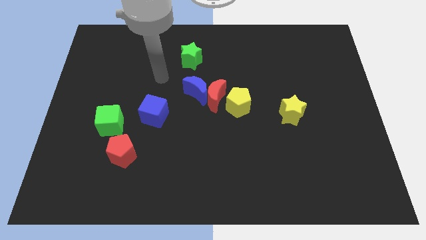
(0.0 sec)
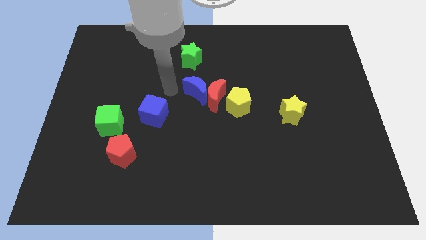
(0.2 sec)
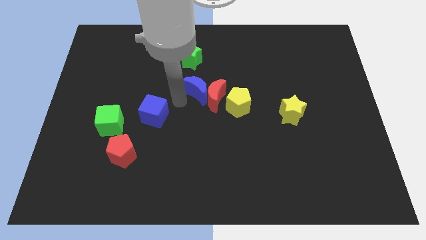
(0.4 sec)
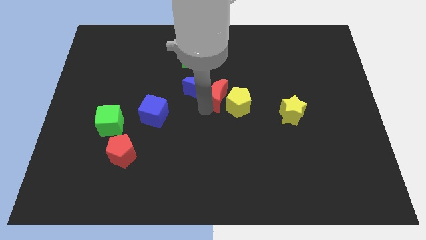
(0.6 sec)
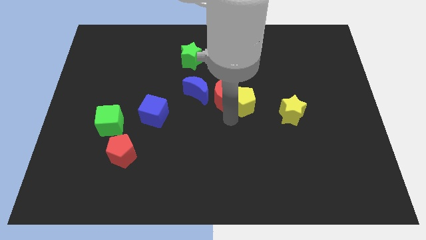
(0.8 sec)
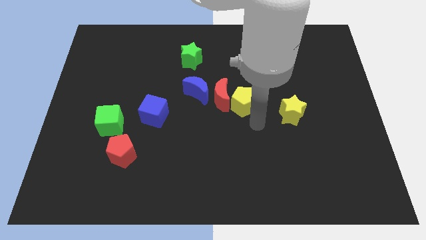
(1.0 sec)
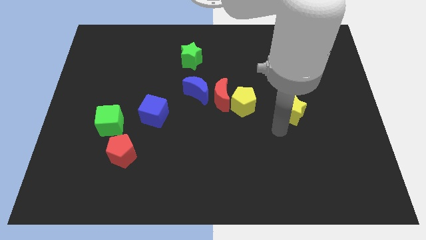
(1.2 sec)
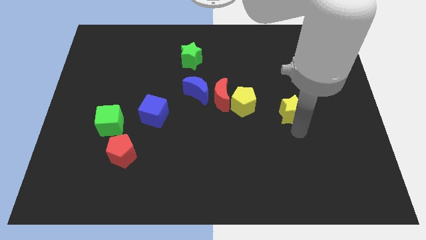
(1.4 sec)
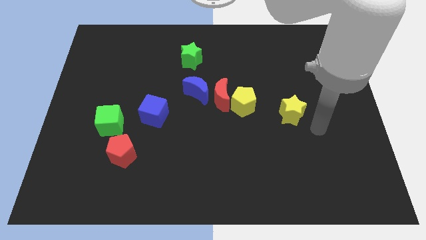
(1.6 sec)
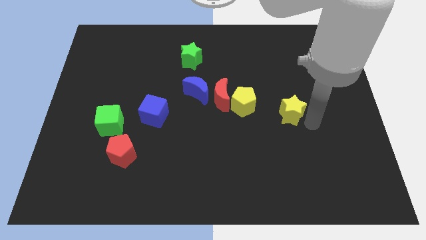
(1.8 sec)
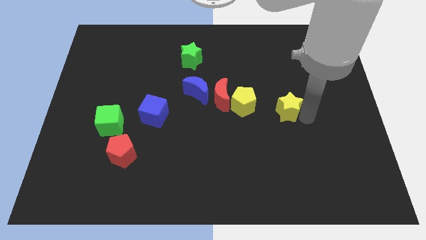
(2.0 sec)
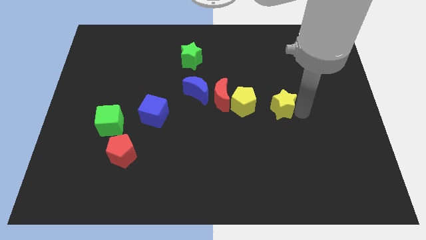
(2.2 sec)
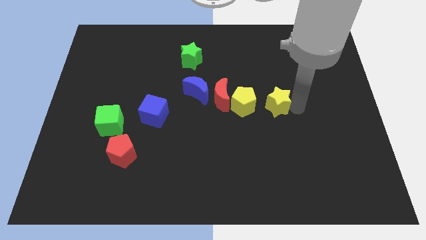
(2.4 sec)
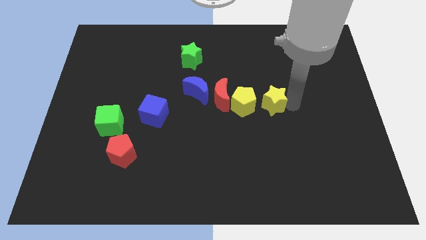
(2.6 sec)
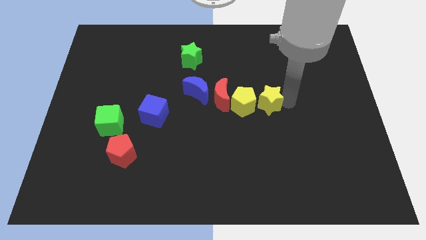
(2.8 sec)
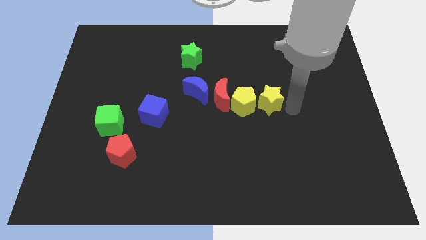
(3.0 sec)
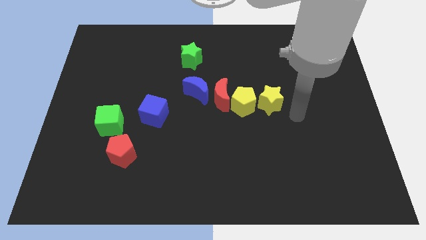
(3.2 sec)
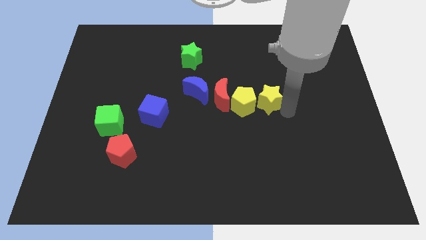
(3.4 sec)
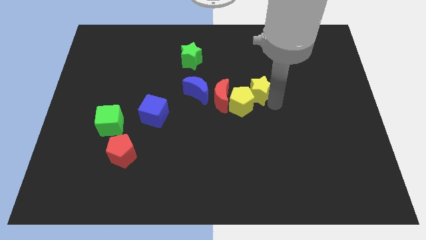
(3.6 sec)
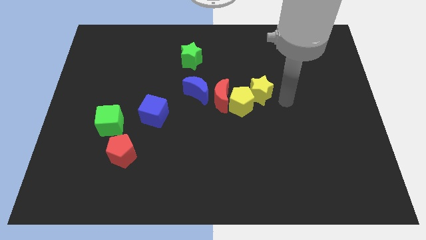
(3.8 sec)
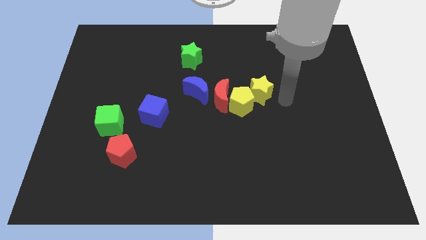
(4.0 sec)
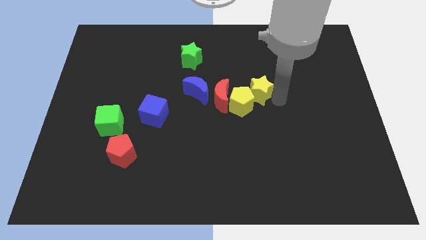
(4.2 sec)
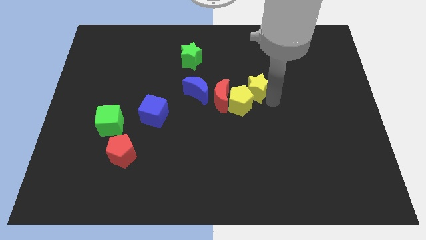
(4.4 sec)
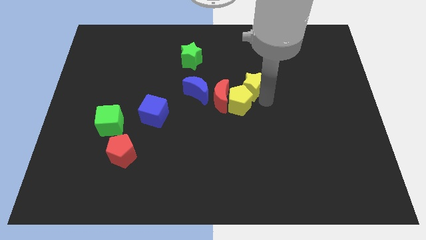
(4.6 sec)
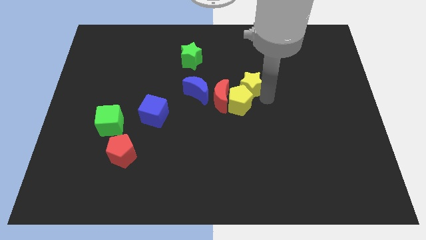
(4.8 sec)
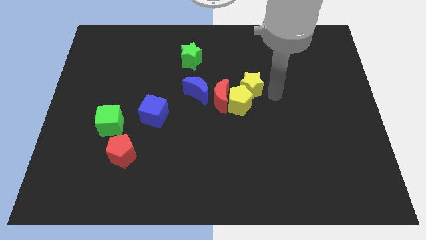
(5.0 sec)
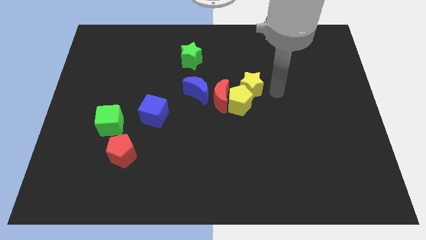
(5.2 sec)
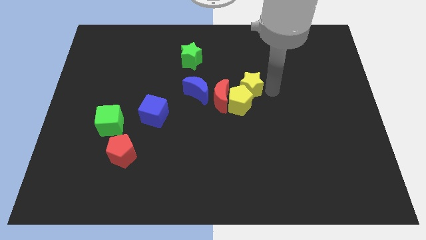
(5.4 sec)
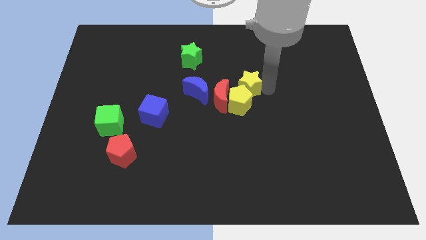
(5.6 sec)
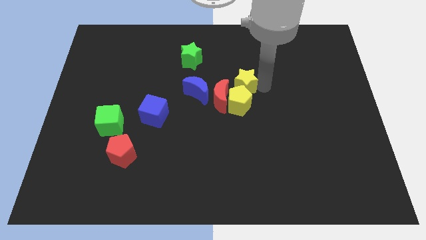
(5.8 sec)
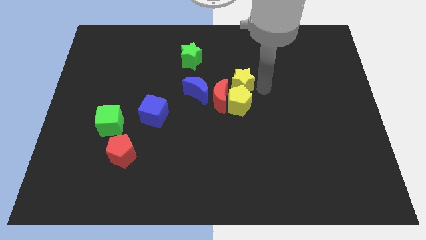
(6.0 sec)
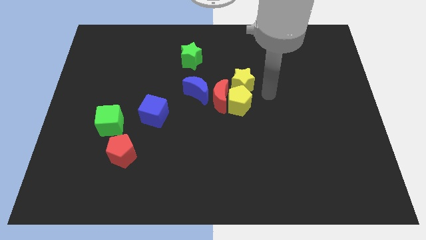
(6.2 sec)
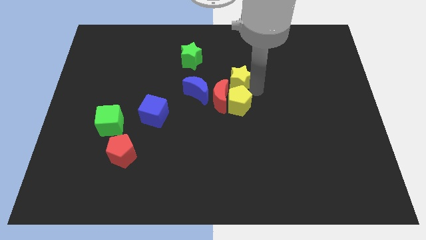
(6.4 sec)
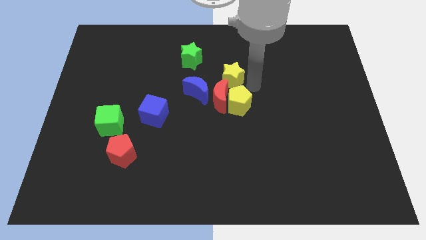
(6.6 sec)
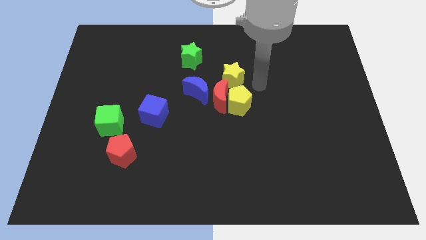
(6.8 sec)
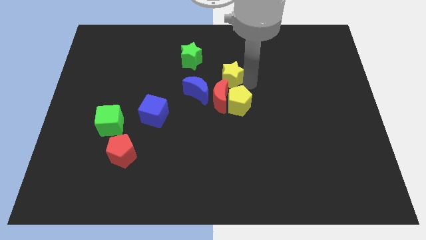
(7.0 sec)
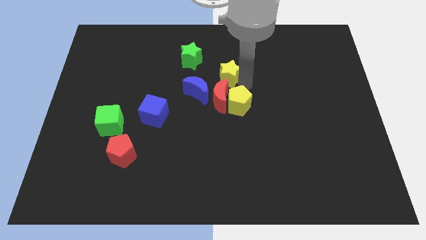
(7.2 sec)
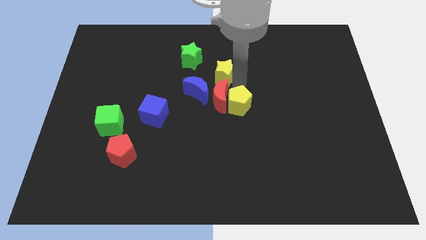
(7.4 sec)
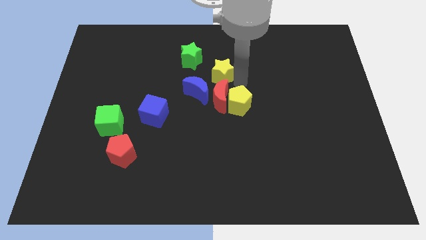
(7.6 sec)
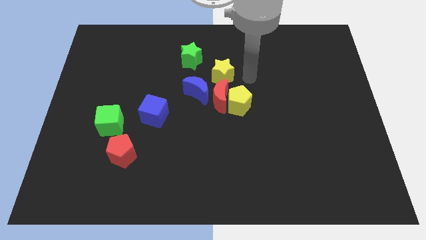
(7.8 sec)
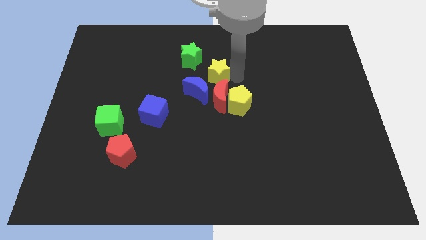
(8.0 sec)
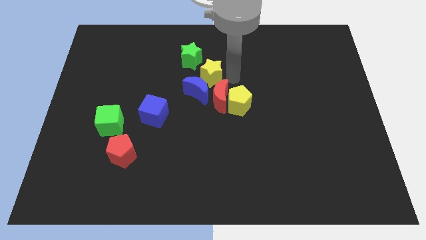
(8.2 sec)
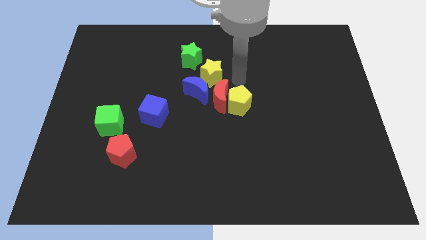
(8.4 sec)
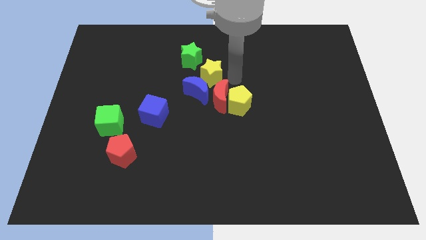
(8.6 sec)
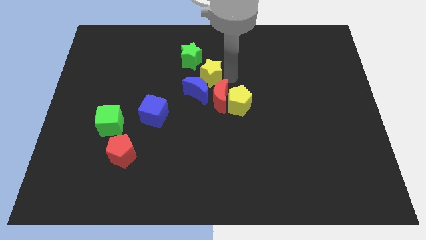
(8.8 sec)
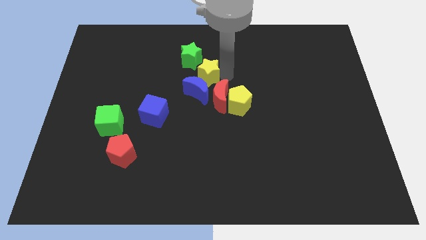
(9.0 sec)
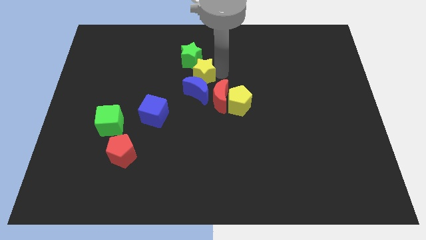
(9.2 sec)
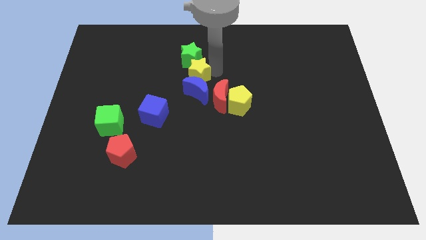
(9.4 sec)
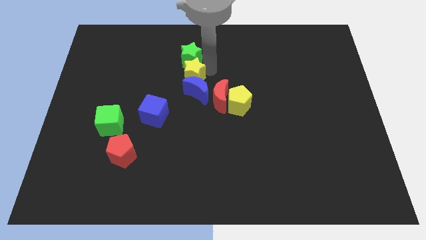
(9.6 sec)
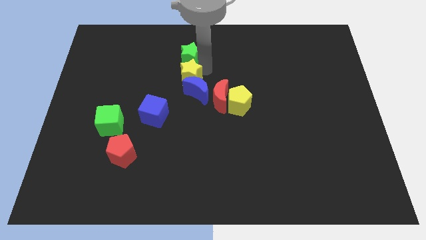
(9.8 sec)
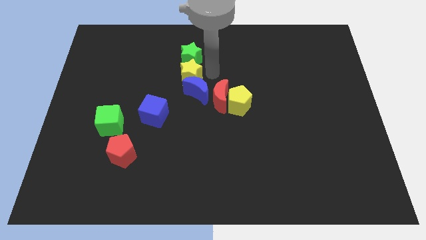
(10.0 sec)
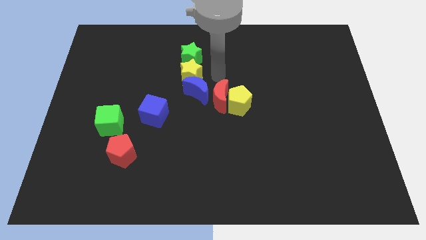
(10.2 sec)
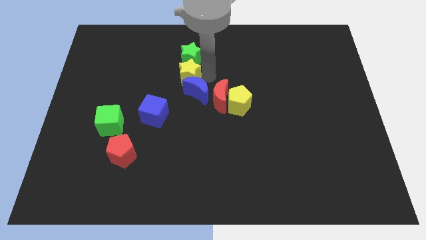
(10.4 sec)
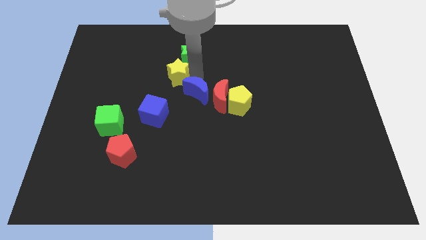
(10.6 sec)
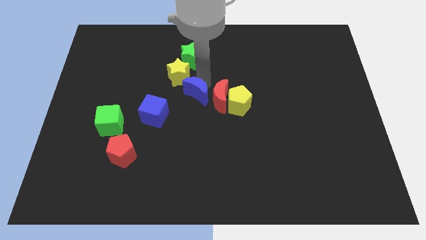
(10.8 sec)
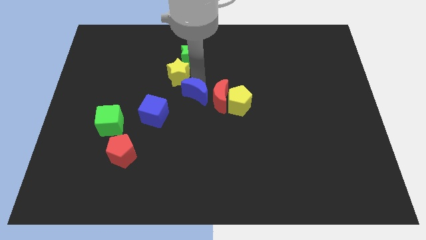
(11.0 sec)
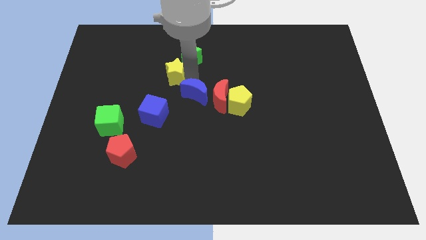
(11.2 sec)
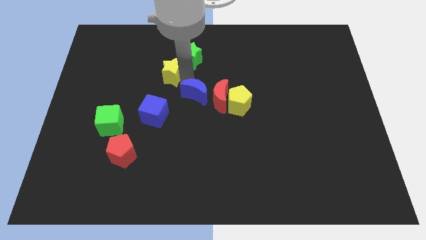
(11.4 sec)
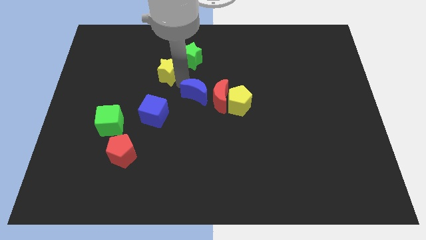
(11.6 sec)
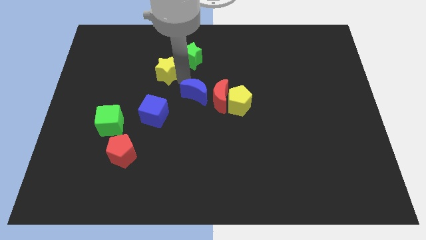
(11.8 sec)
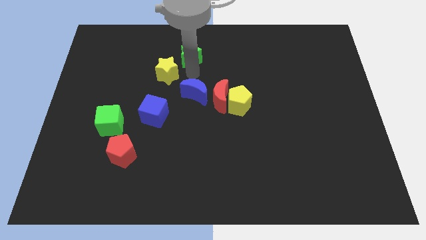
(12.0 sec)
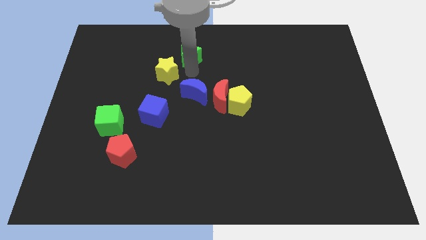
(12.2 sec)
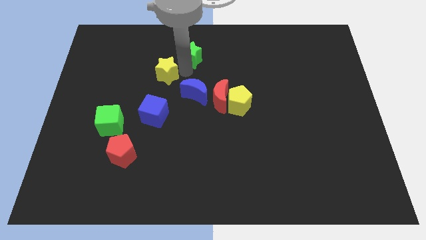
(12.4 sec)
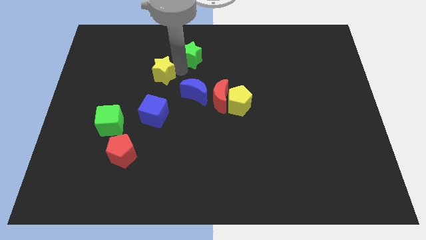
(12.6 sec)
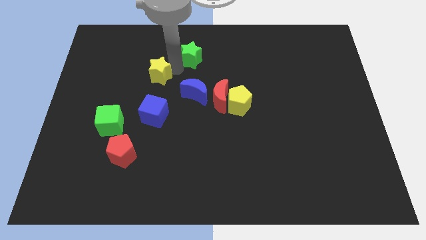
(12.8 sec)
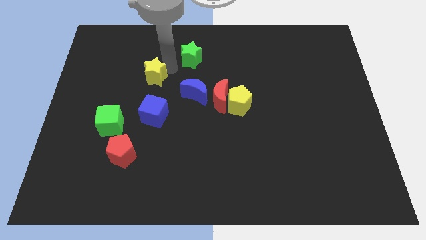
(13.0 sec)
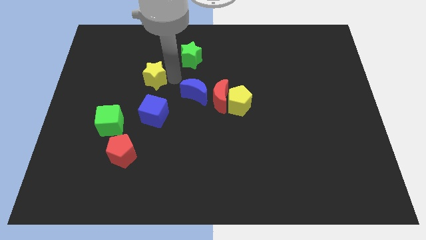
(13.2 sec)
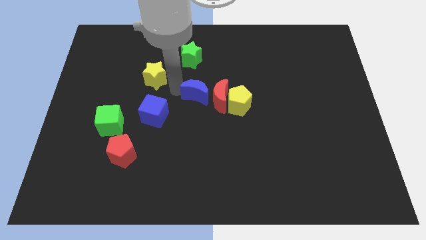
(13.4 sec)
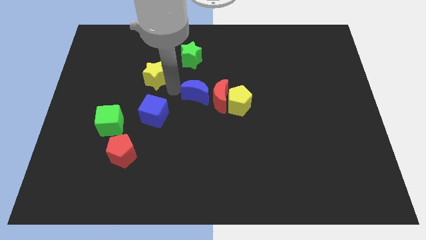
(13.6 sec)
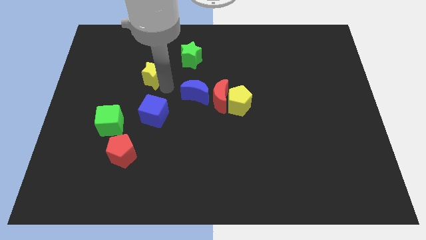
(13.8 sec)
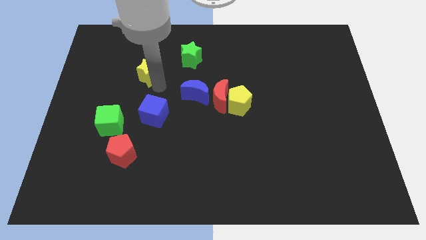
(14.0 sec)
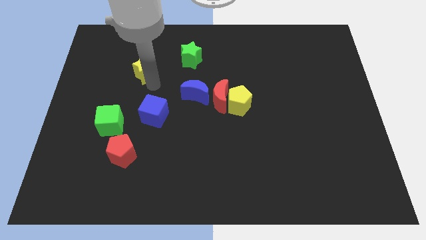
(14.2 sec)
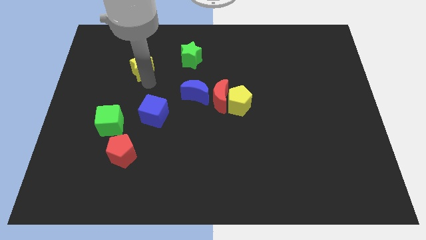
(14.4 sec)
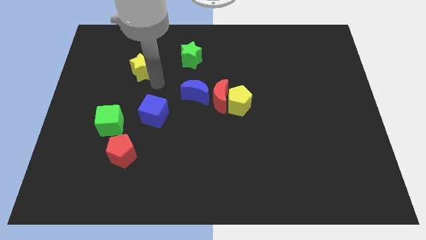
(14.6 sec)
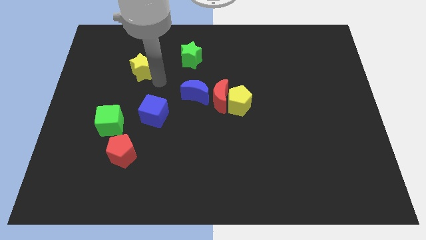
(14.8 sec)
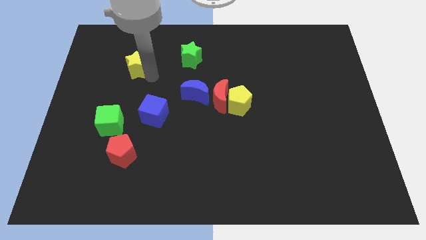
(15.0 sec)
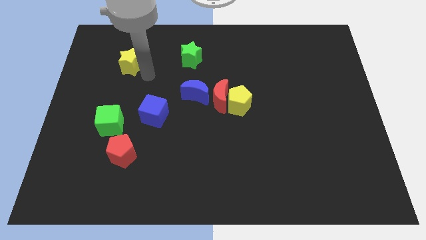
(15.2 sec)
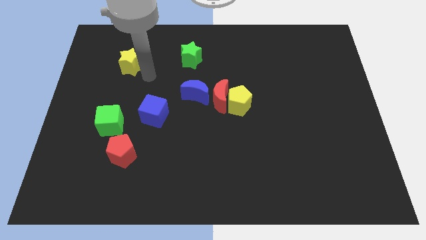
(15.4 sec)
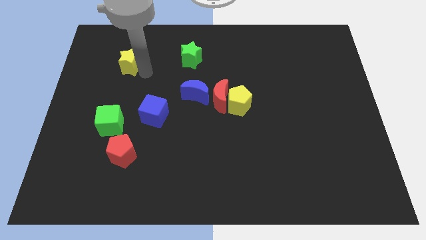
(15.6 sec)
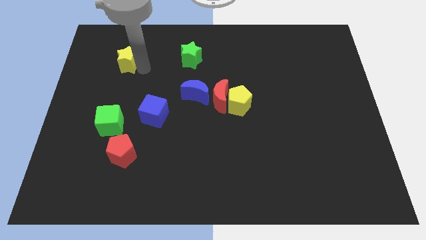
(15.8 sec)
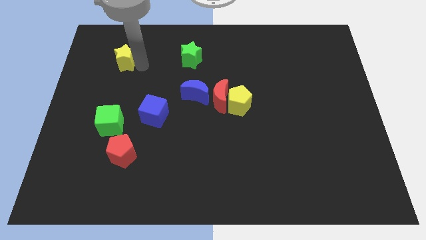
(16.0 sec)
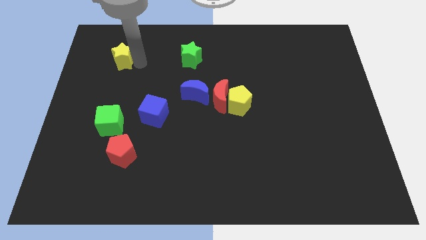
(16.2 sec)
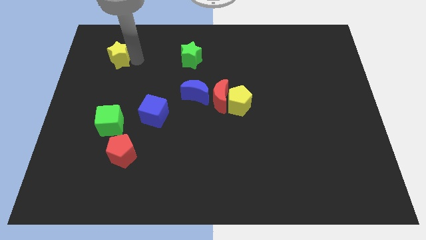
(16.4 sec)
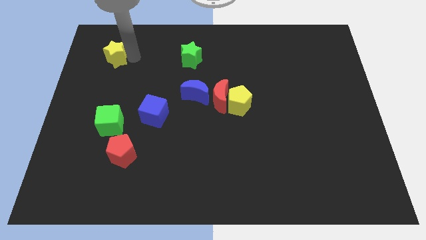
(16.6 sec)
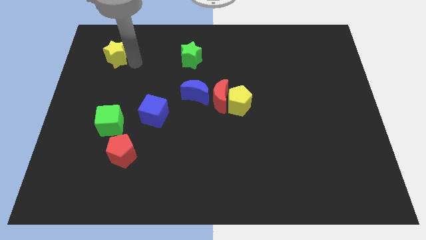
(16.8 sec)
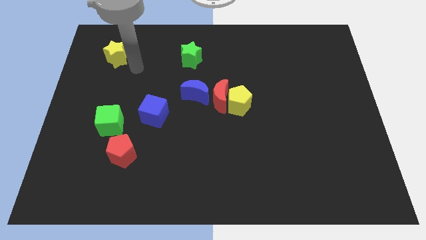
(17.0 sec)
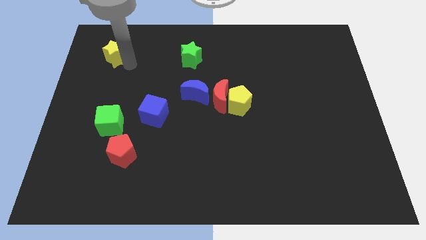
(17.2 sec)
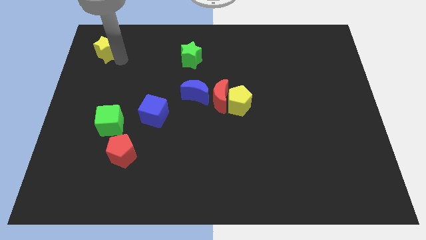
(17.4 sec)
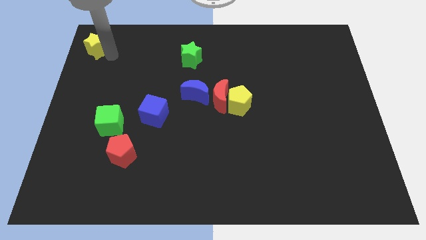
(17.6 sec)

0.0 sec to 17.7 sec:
put the yellow star to the top left of the board
